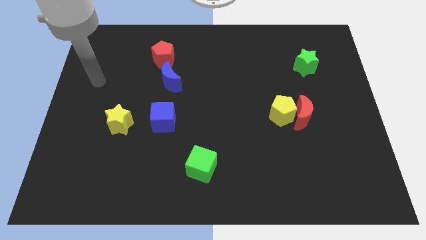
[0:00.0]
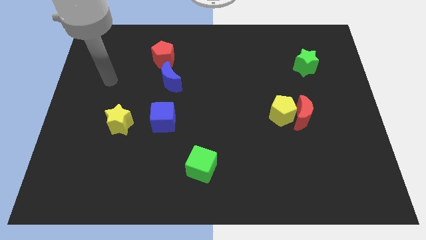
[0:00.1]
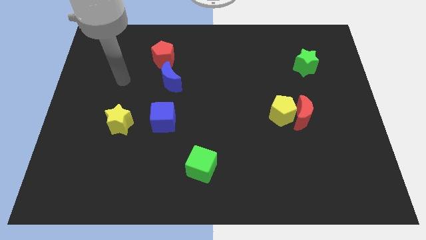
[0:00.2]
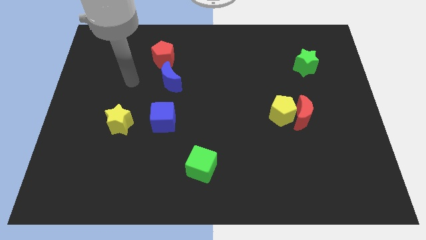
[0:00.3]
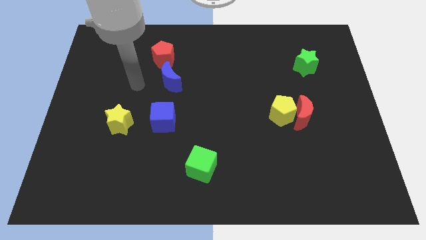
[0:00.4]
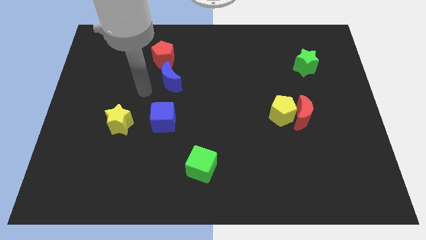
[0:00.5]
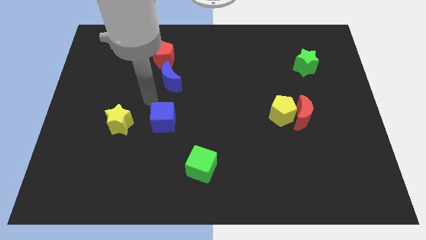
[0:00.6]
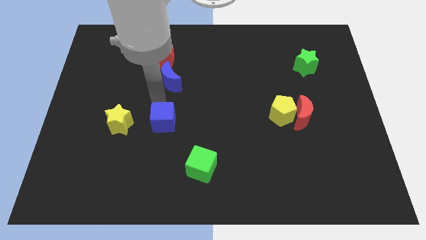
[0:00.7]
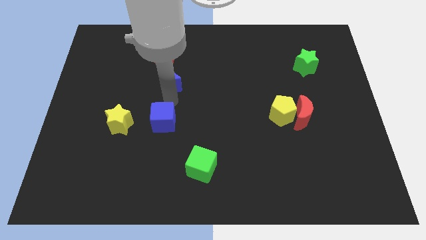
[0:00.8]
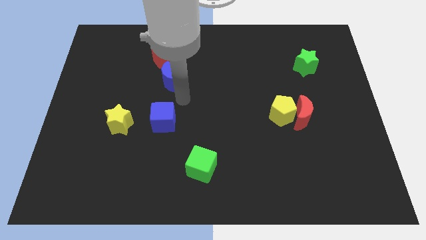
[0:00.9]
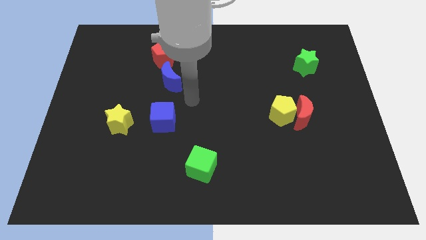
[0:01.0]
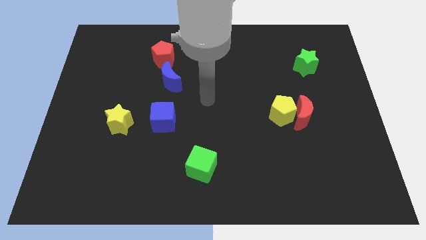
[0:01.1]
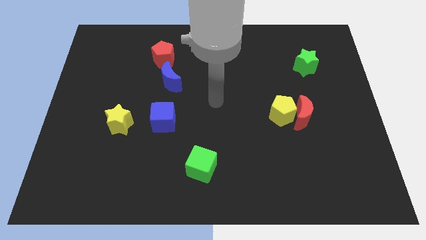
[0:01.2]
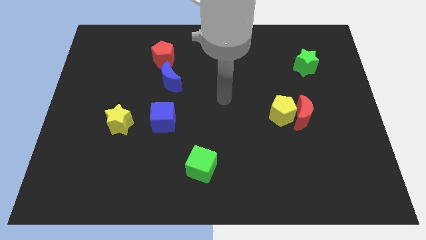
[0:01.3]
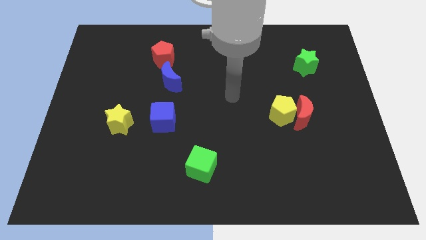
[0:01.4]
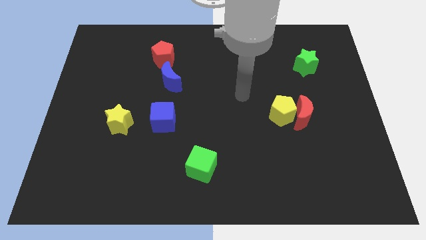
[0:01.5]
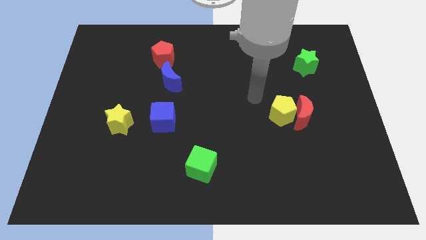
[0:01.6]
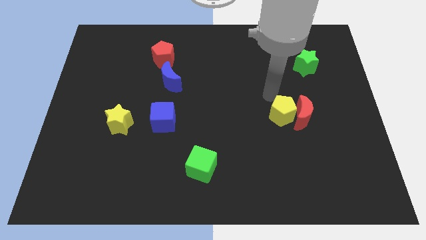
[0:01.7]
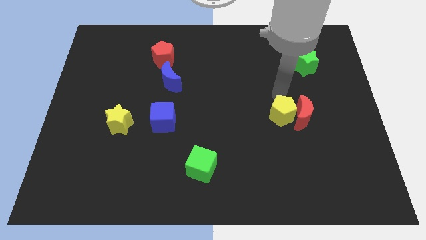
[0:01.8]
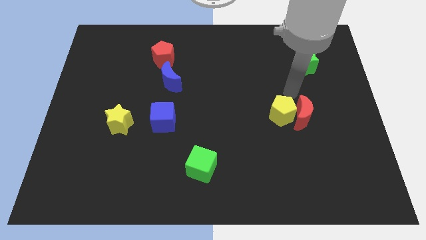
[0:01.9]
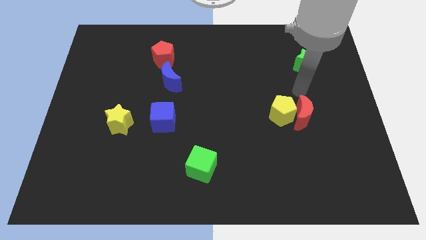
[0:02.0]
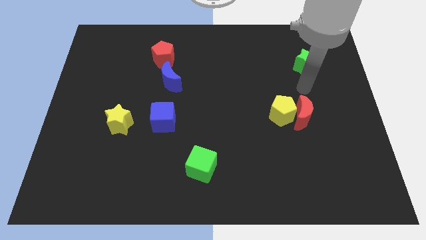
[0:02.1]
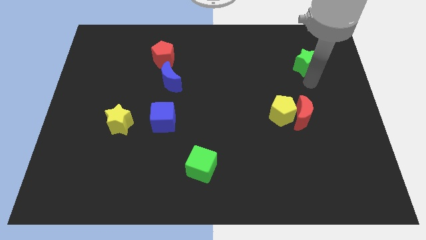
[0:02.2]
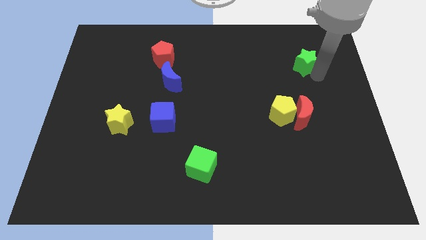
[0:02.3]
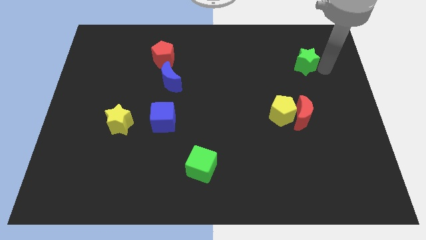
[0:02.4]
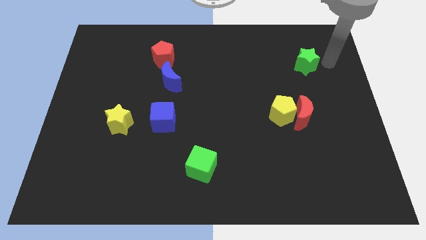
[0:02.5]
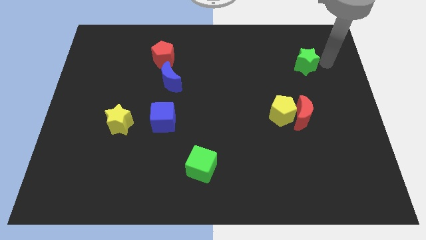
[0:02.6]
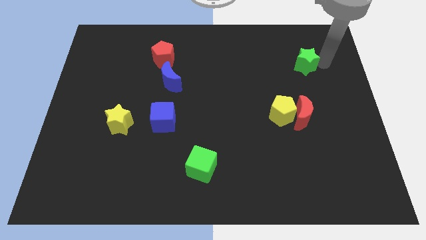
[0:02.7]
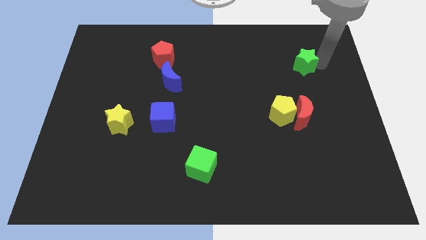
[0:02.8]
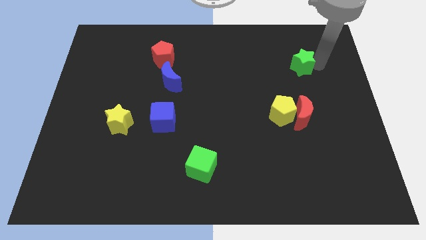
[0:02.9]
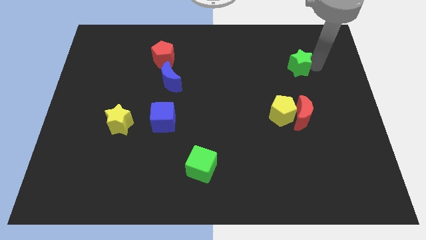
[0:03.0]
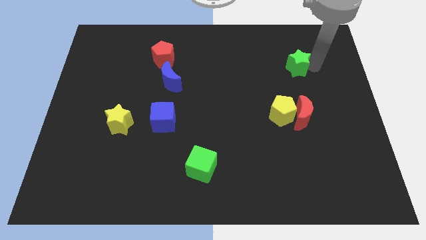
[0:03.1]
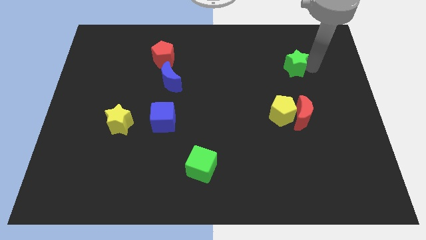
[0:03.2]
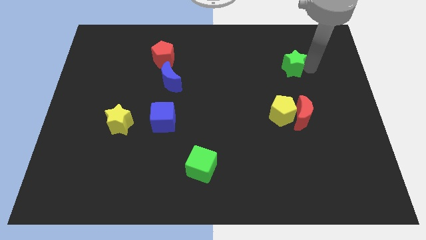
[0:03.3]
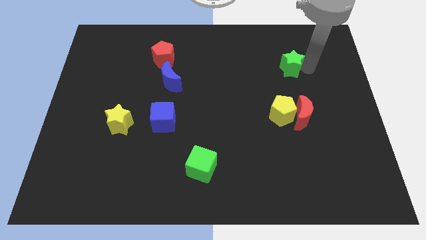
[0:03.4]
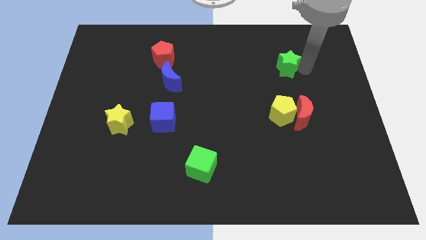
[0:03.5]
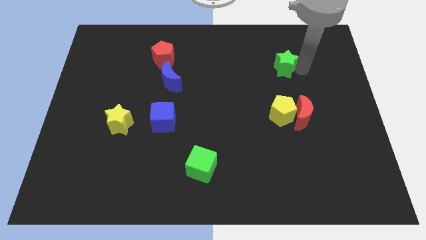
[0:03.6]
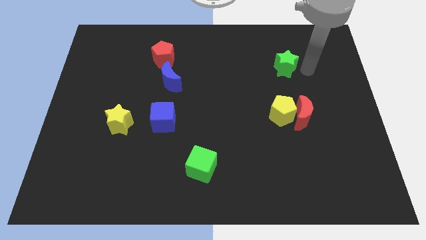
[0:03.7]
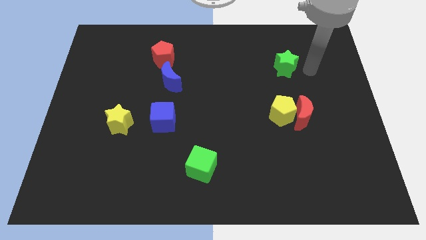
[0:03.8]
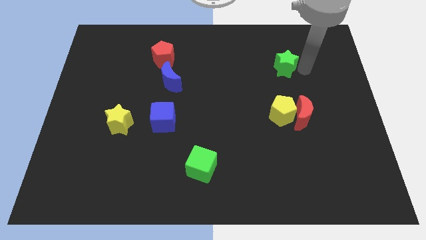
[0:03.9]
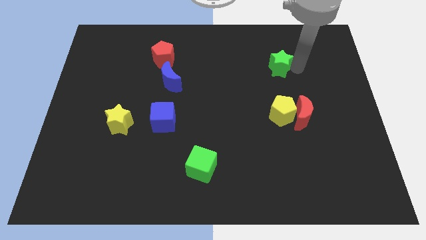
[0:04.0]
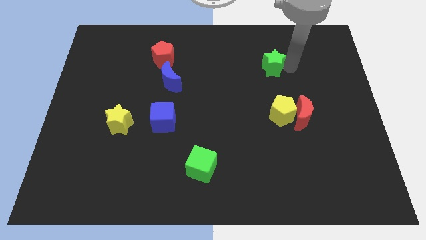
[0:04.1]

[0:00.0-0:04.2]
slide the green star slightly left

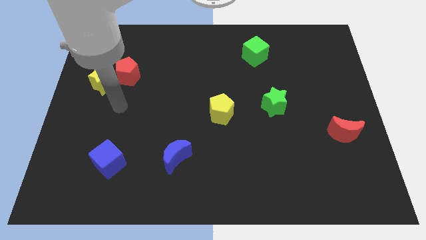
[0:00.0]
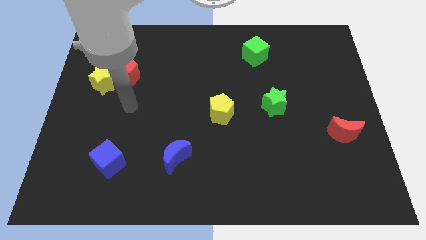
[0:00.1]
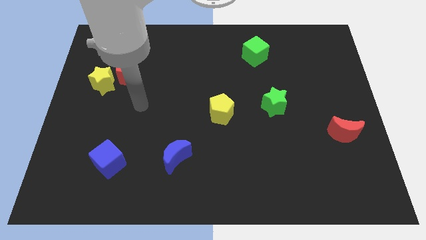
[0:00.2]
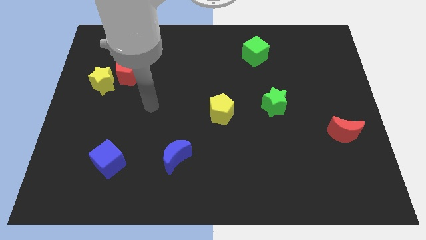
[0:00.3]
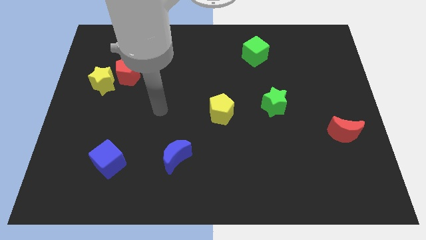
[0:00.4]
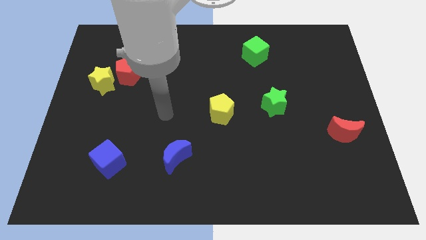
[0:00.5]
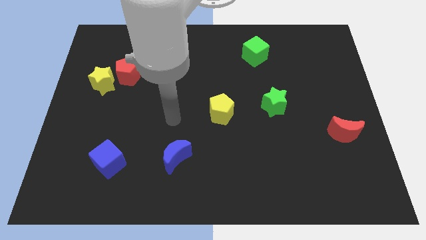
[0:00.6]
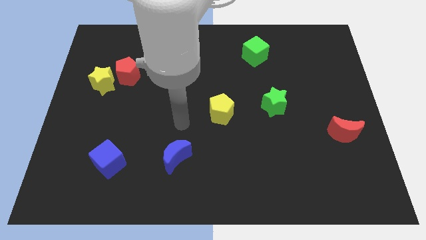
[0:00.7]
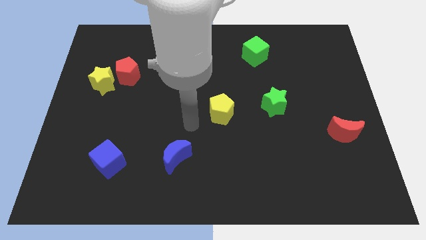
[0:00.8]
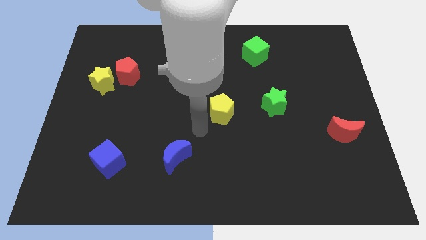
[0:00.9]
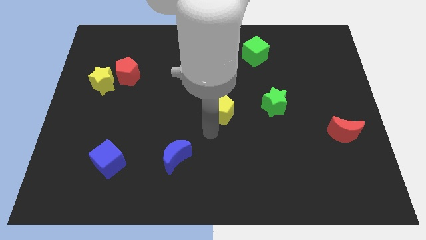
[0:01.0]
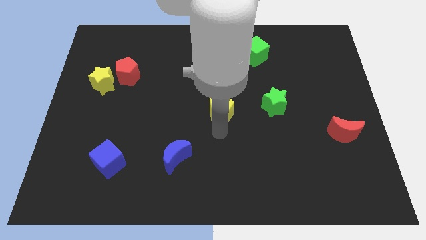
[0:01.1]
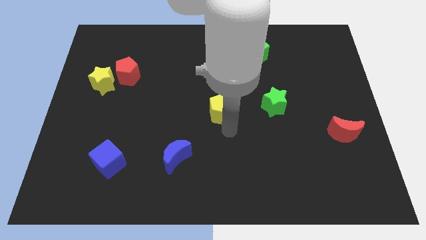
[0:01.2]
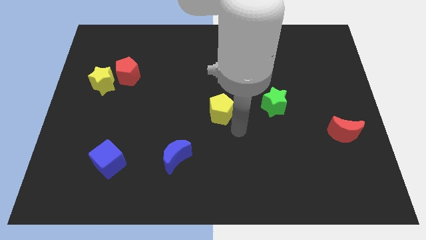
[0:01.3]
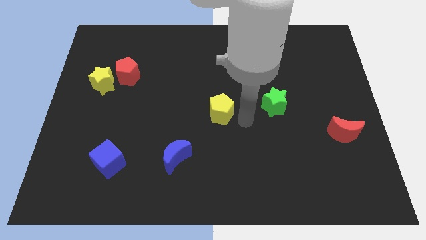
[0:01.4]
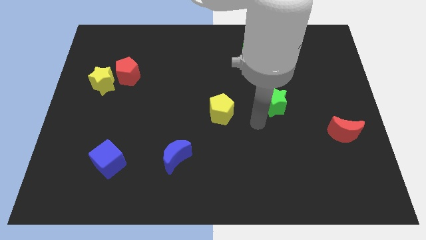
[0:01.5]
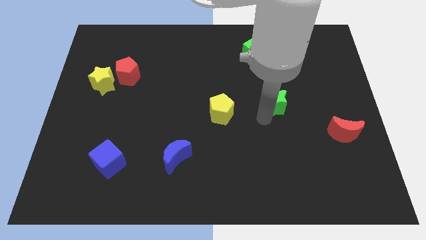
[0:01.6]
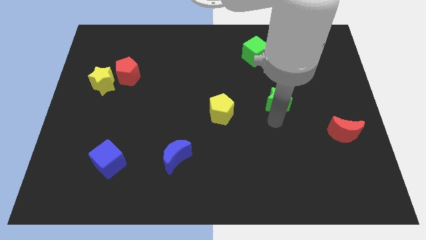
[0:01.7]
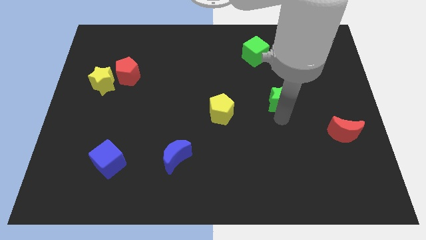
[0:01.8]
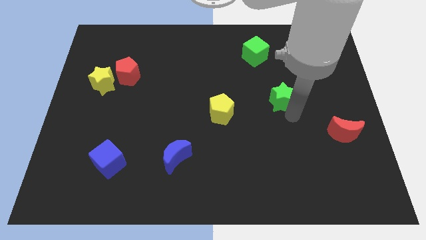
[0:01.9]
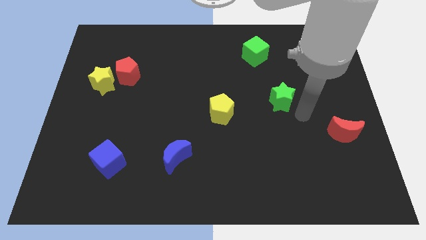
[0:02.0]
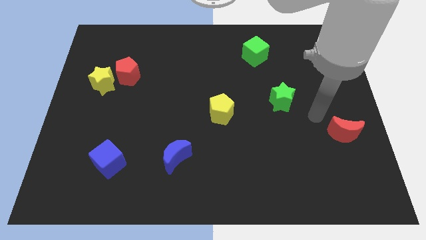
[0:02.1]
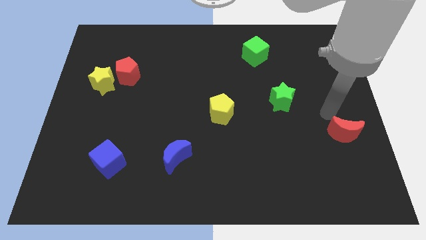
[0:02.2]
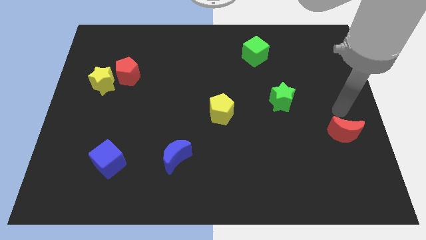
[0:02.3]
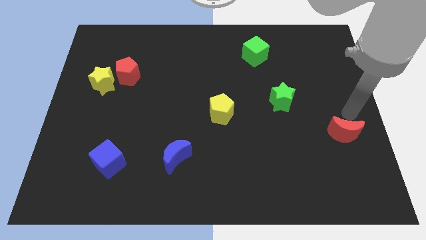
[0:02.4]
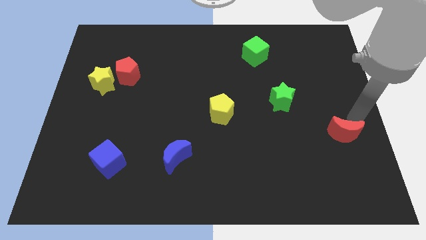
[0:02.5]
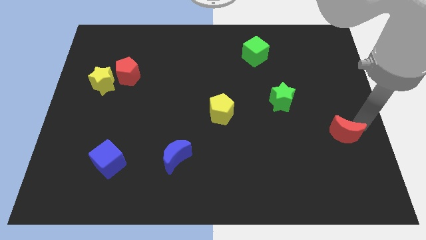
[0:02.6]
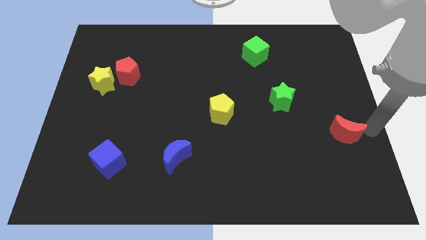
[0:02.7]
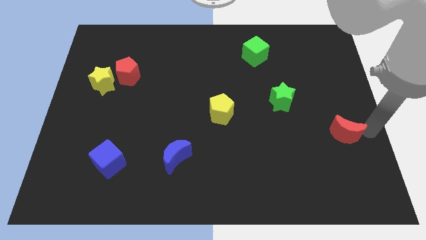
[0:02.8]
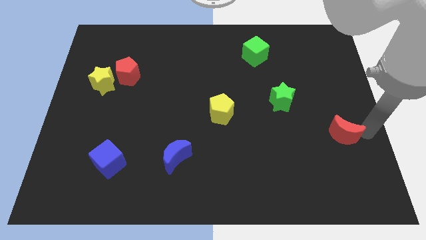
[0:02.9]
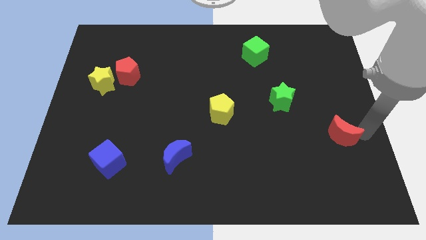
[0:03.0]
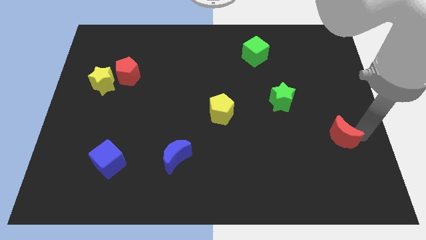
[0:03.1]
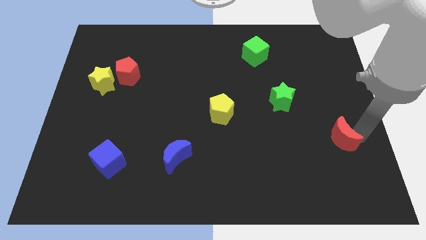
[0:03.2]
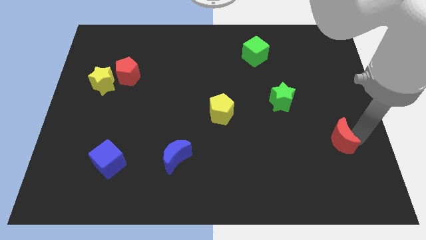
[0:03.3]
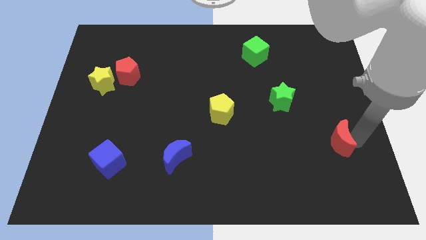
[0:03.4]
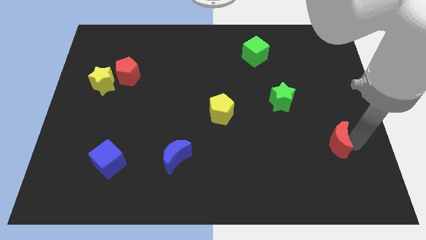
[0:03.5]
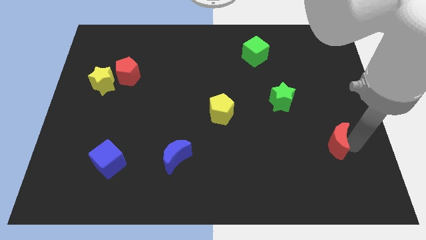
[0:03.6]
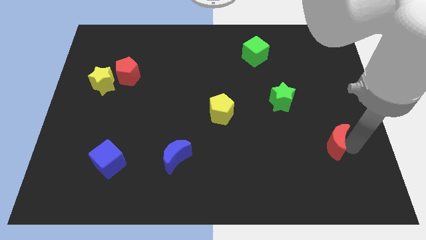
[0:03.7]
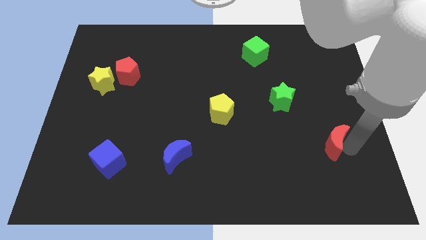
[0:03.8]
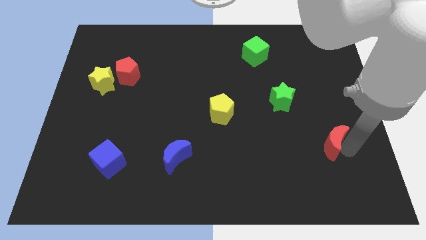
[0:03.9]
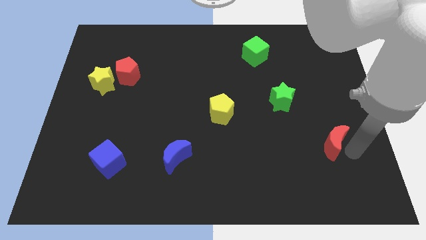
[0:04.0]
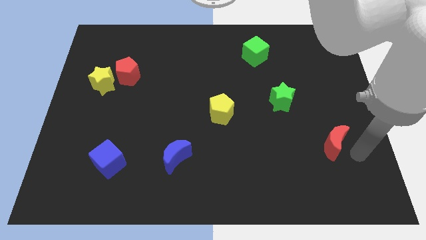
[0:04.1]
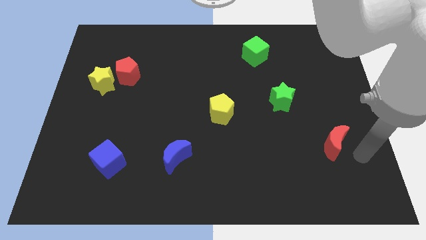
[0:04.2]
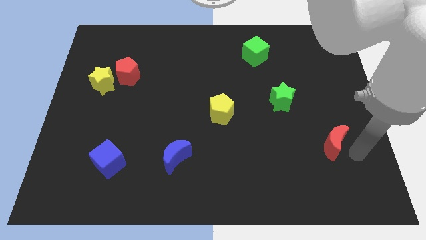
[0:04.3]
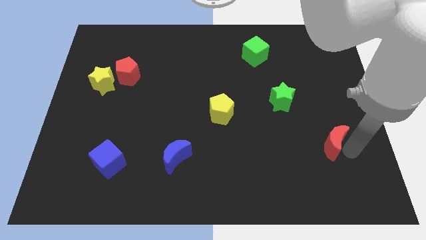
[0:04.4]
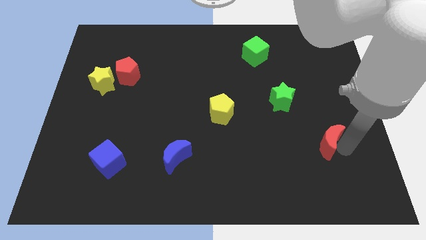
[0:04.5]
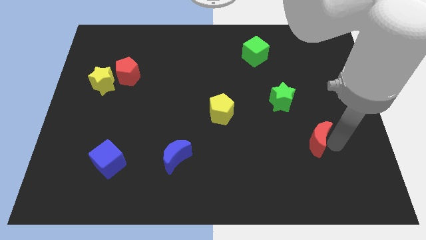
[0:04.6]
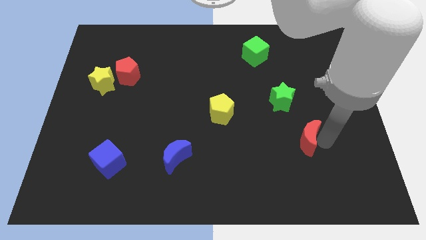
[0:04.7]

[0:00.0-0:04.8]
move the red moon slightly to the left
